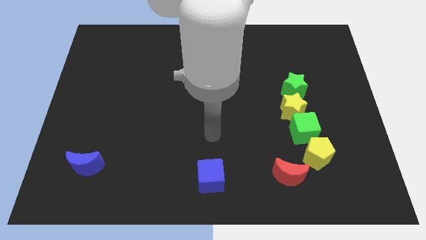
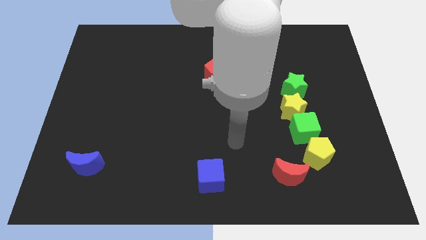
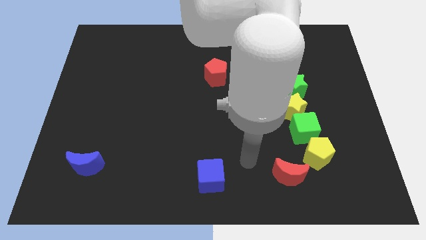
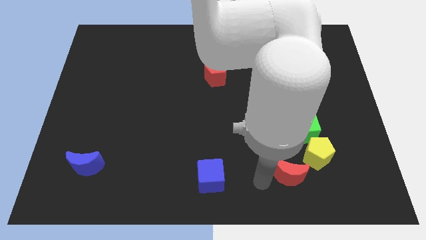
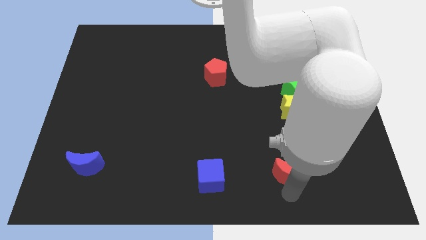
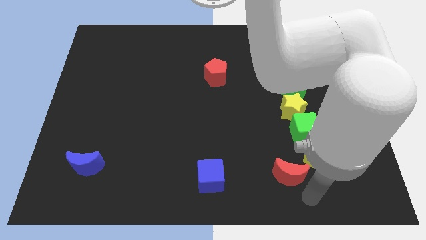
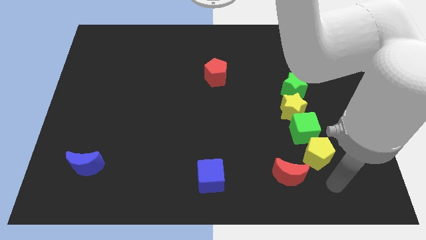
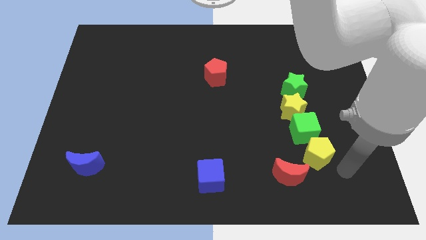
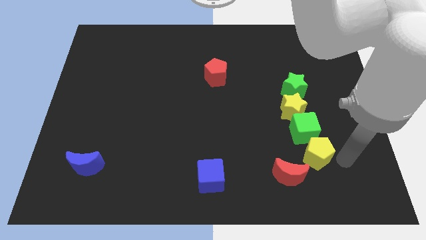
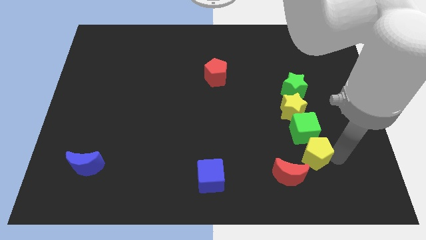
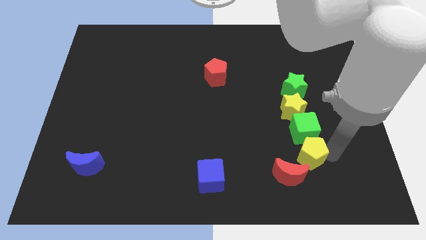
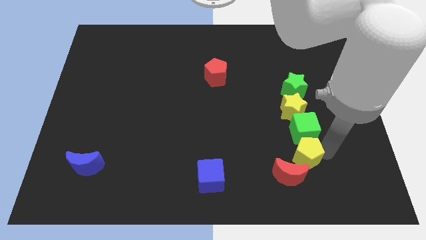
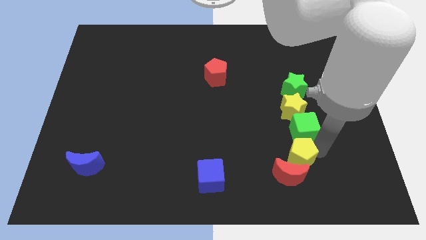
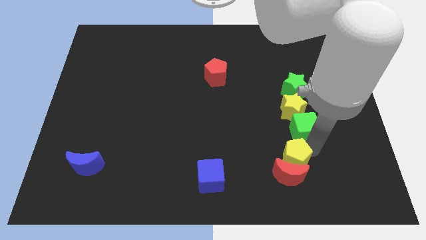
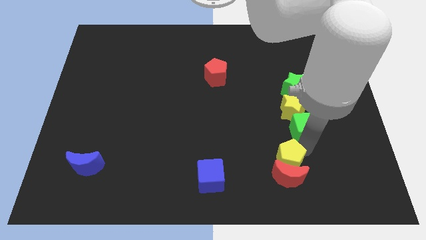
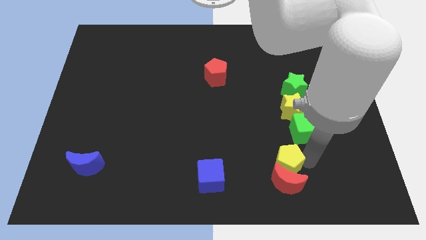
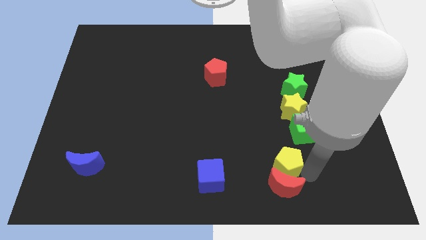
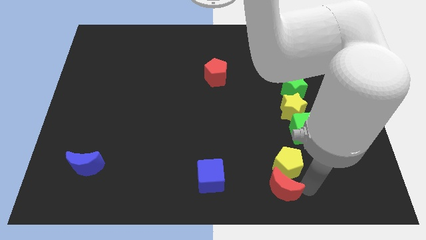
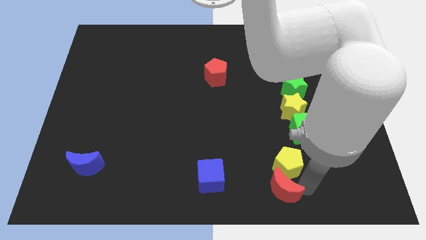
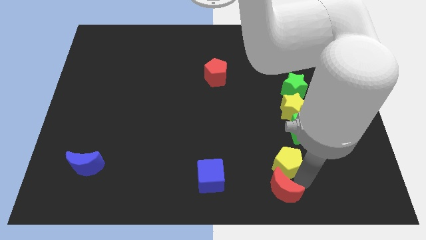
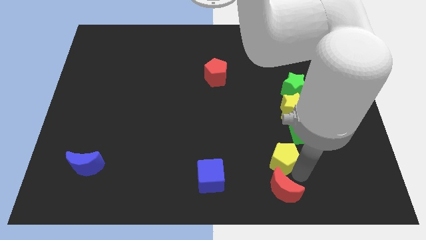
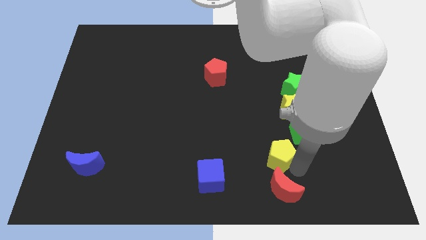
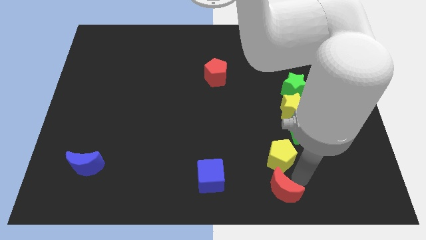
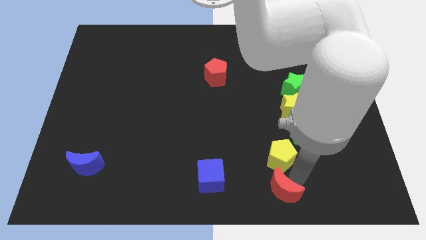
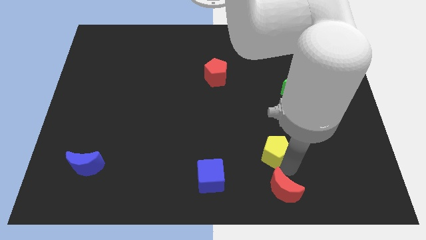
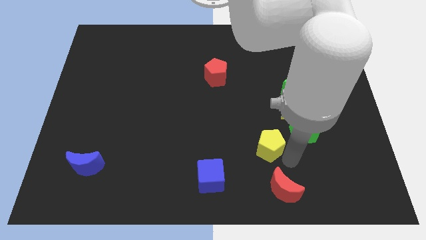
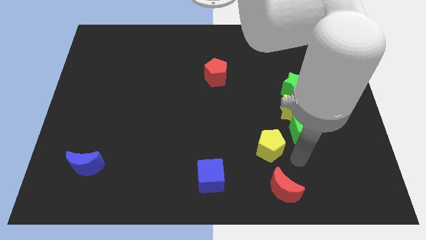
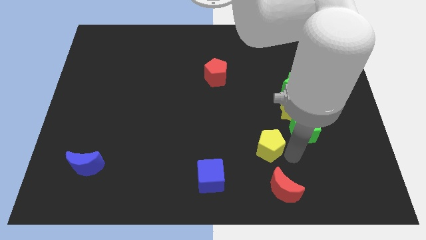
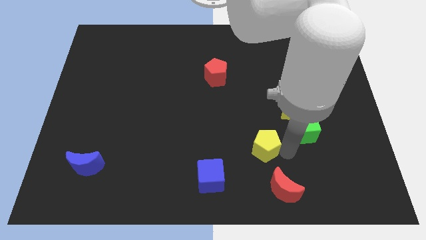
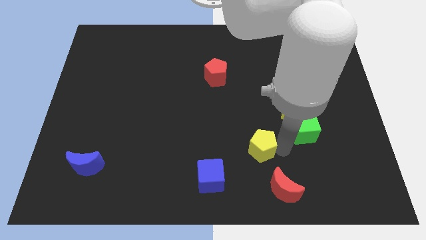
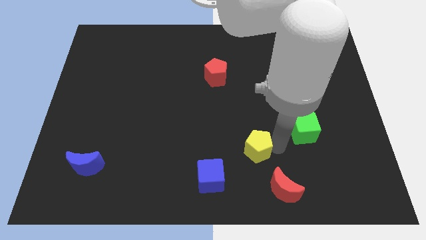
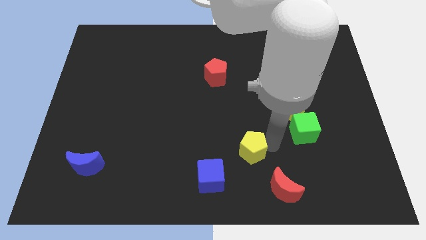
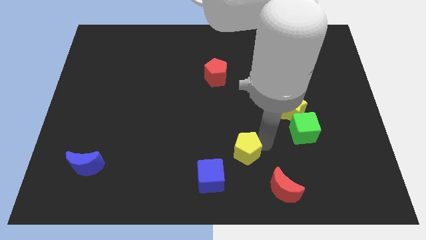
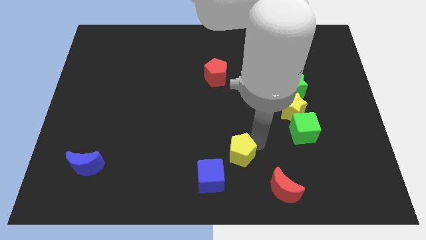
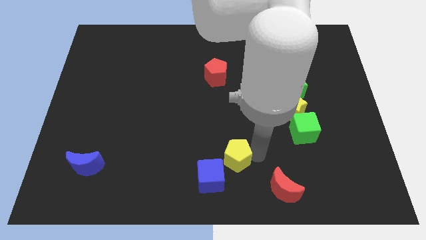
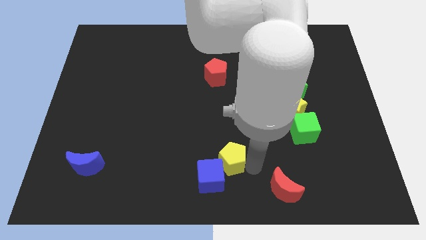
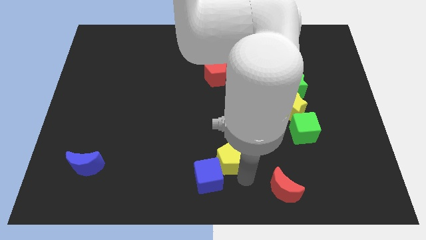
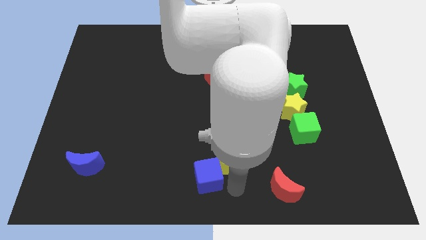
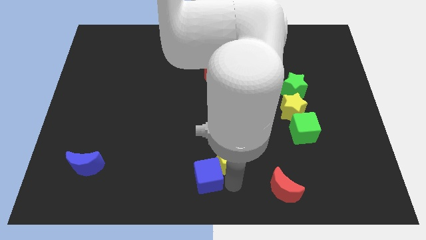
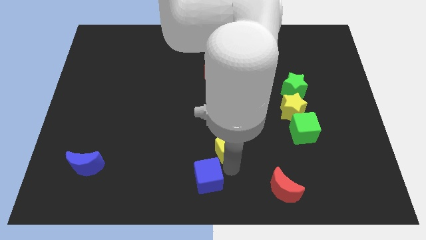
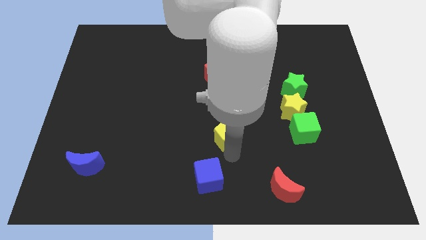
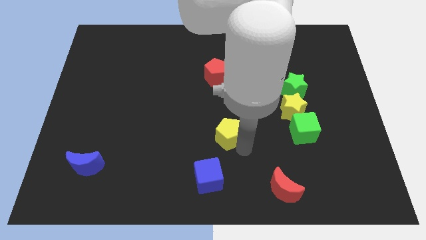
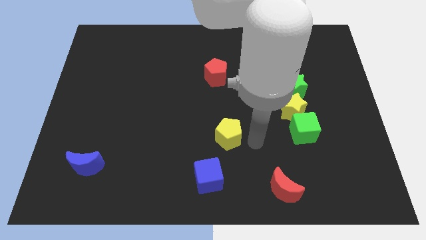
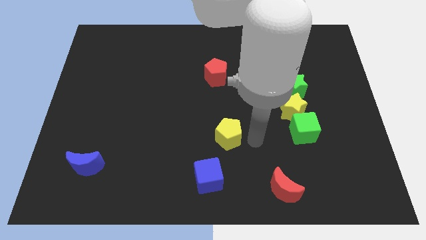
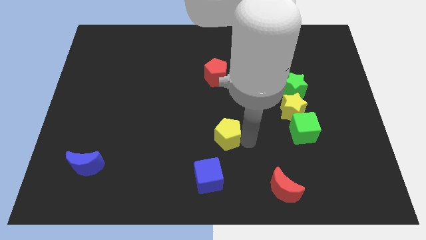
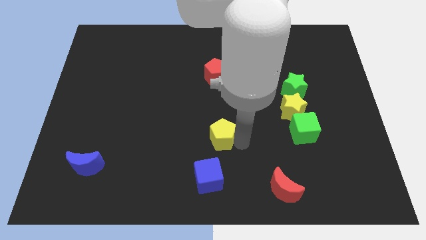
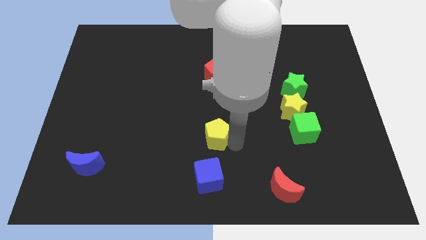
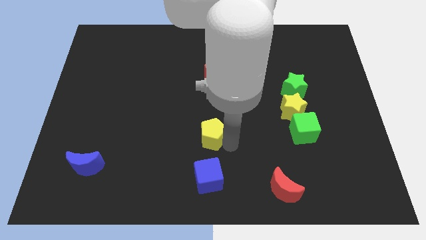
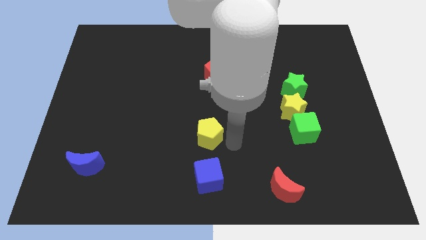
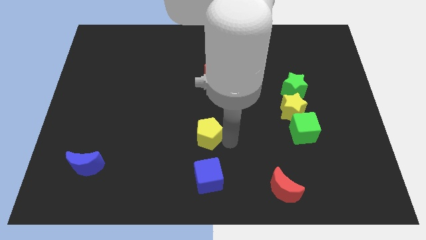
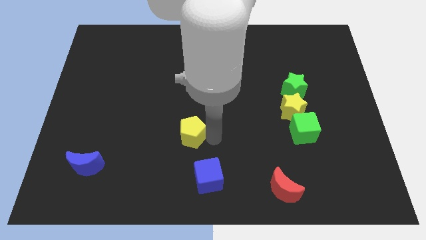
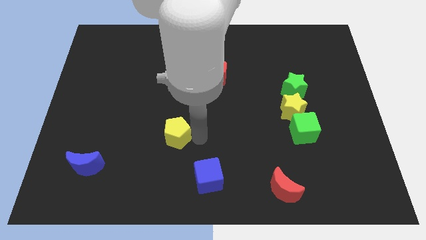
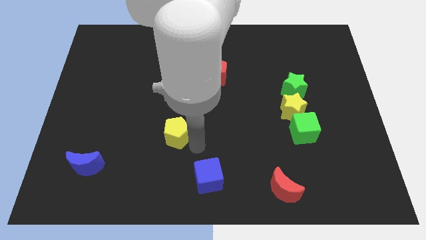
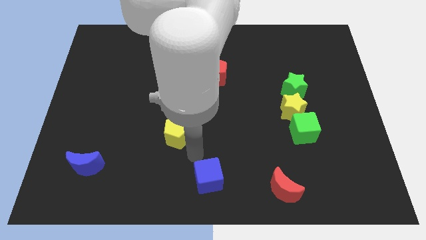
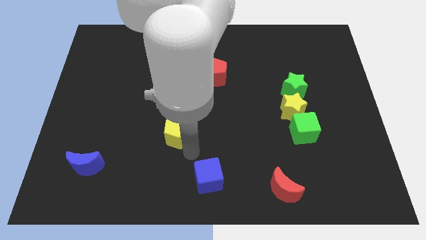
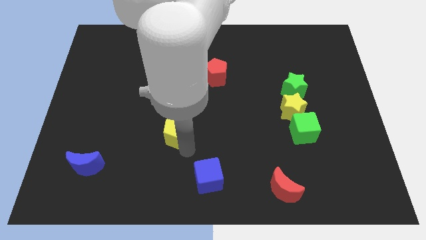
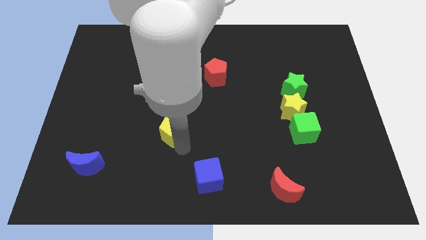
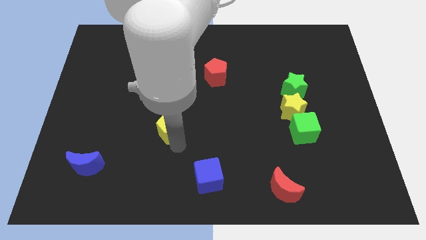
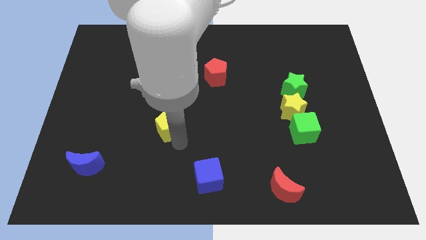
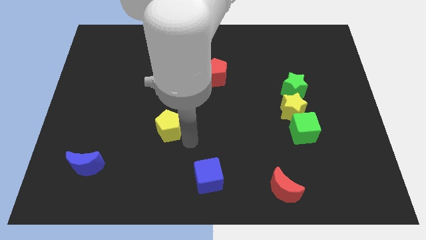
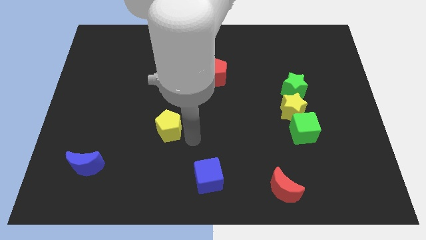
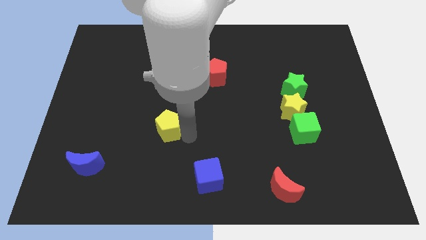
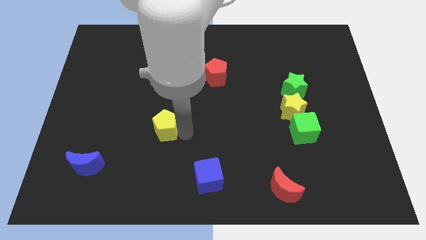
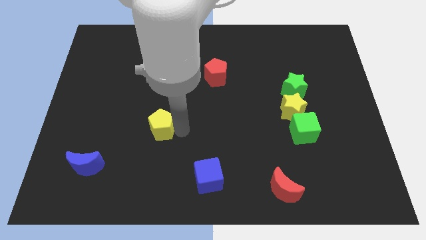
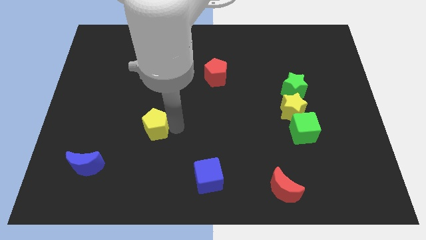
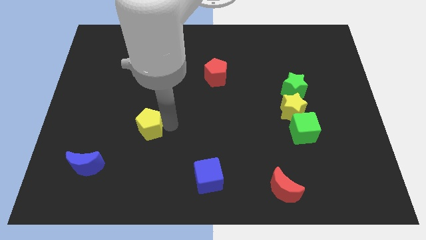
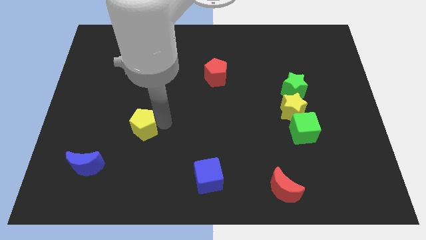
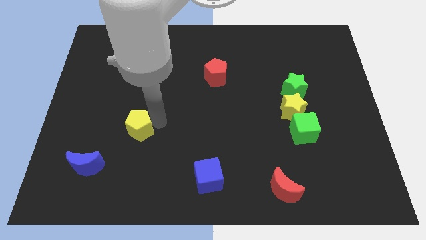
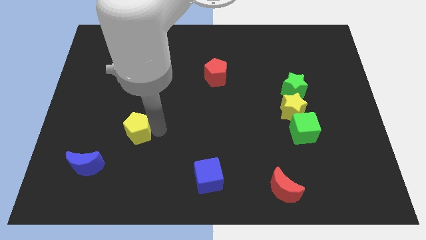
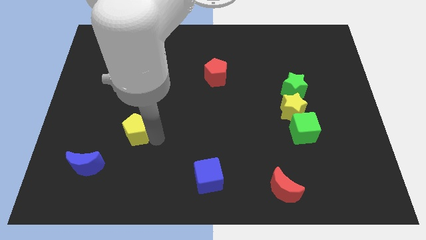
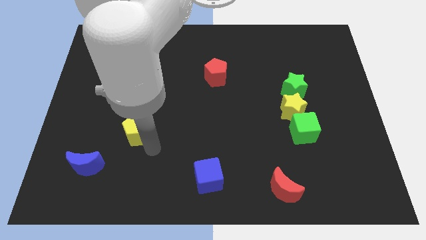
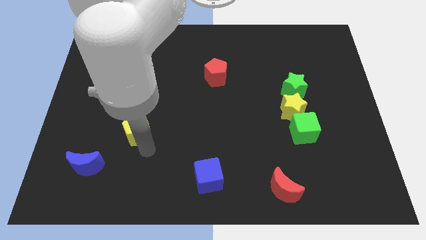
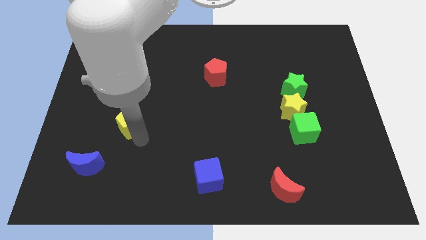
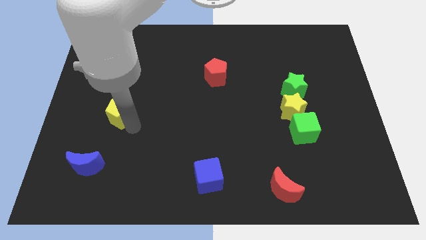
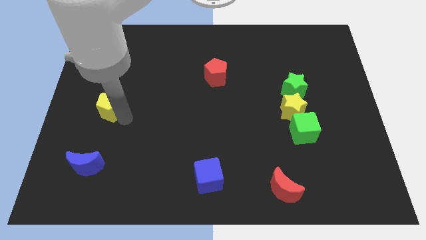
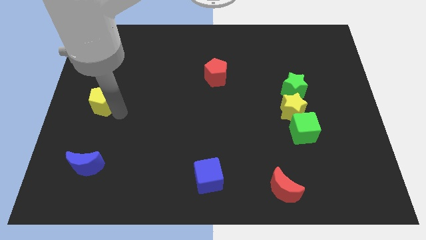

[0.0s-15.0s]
move the yellow pentagon to the left side of the board
